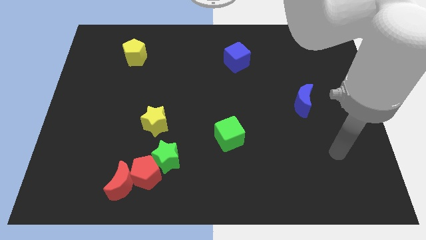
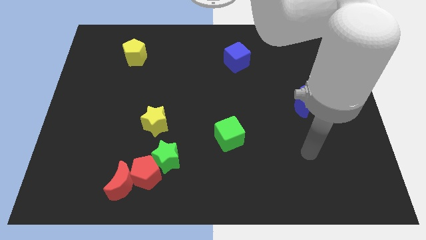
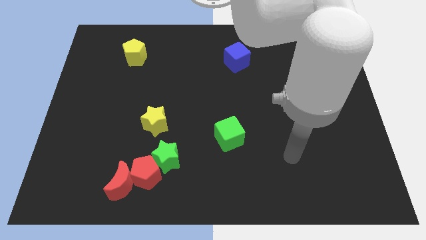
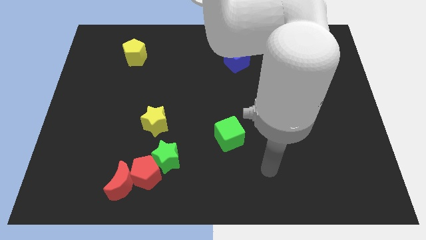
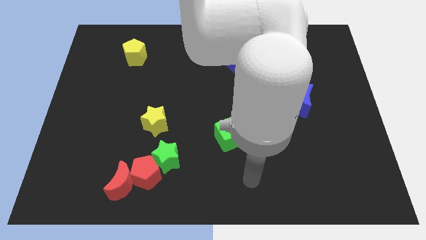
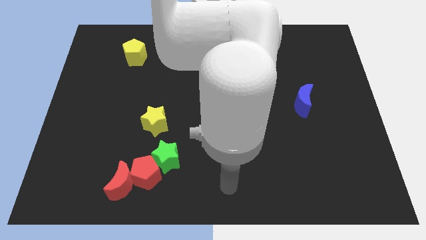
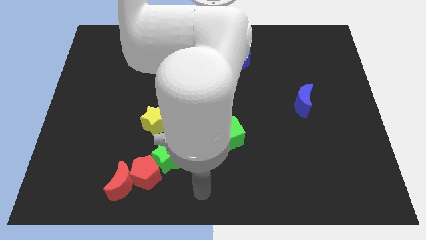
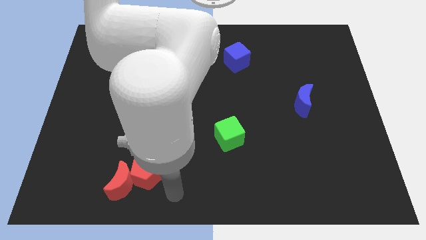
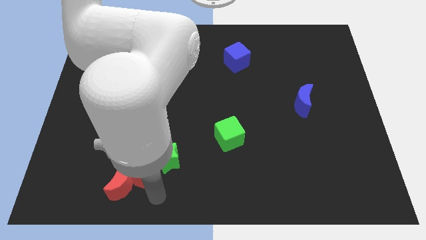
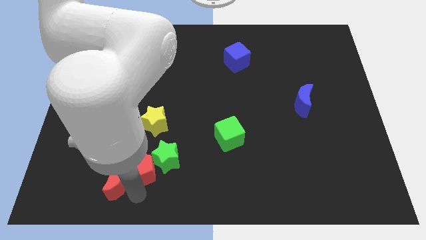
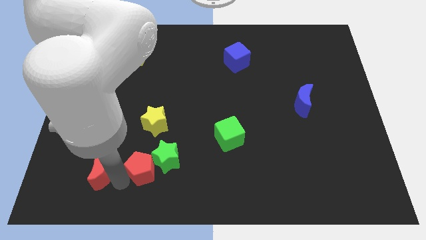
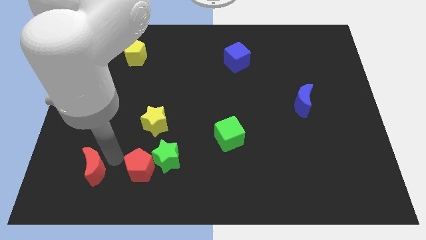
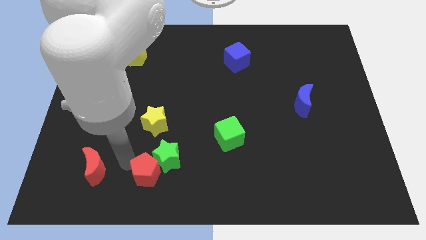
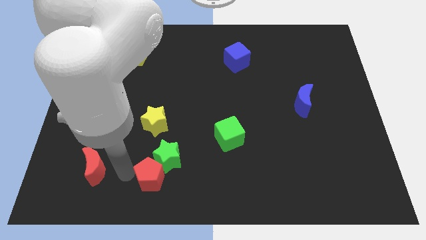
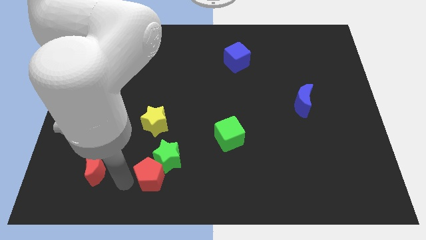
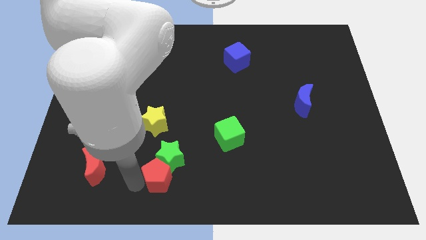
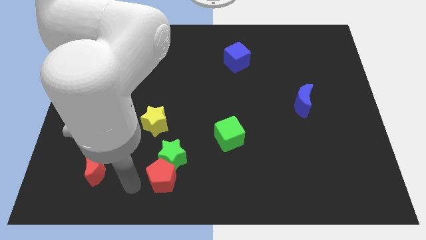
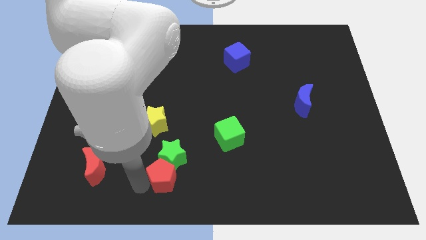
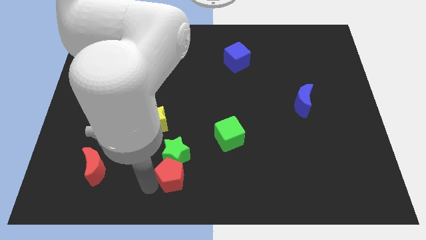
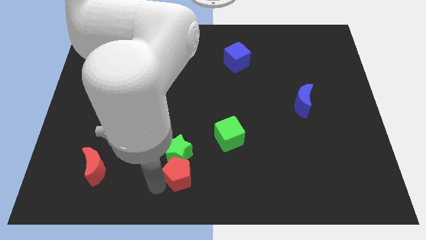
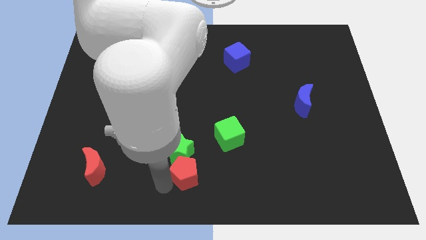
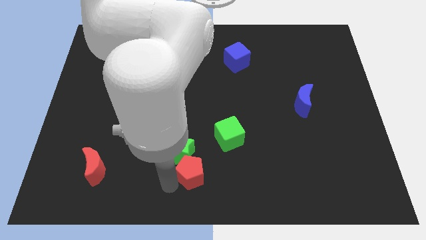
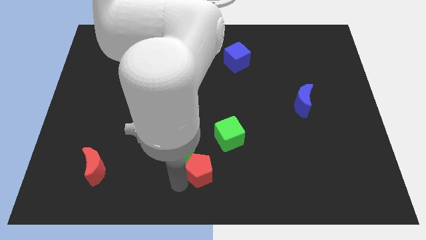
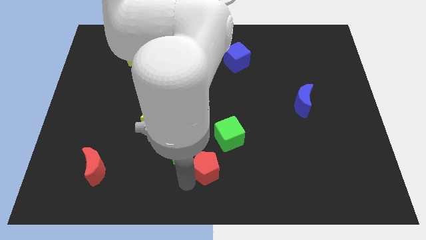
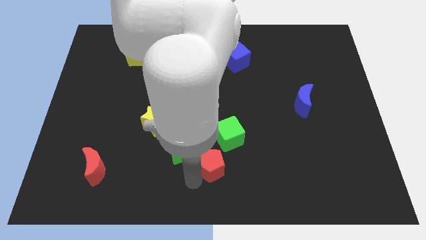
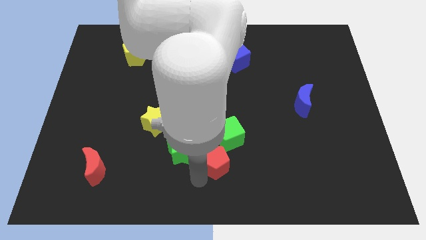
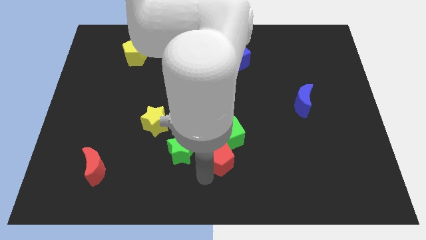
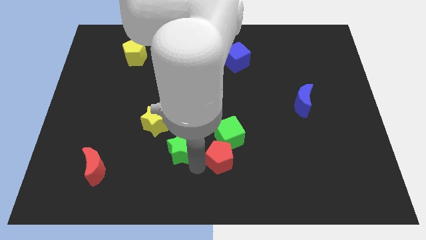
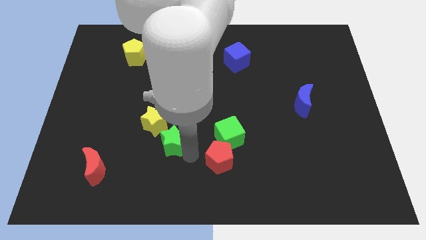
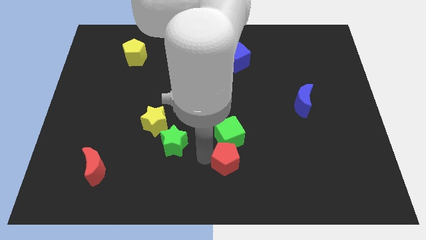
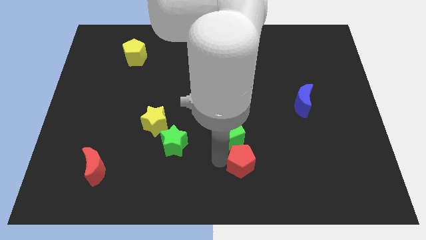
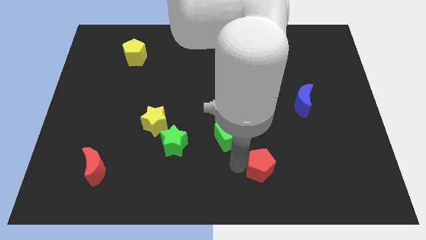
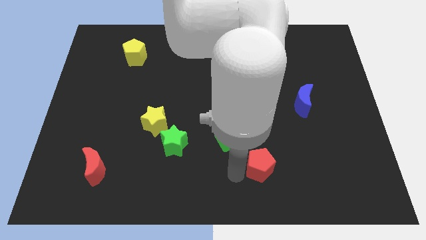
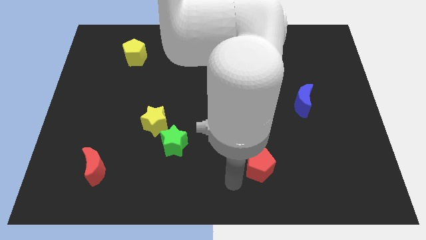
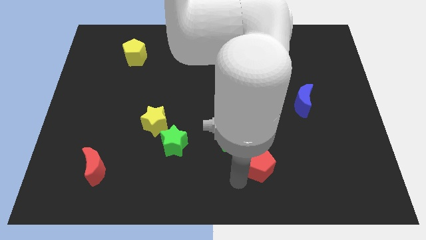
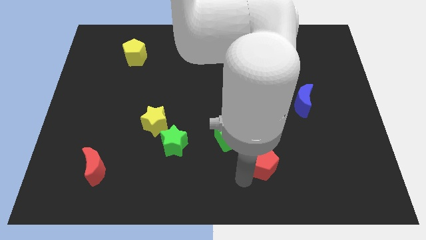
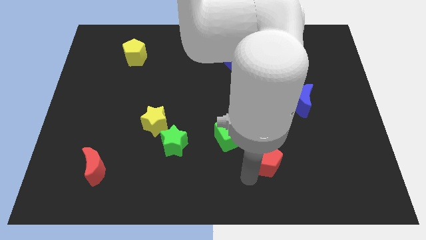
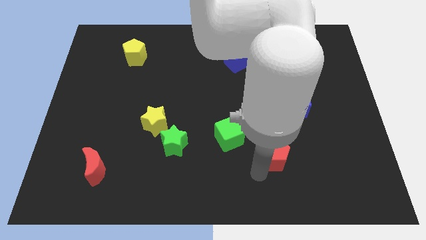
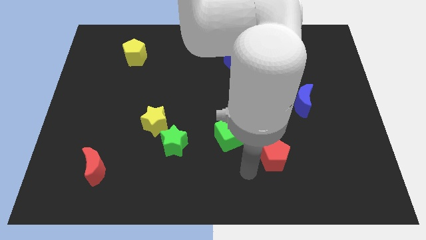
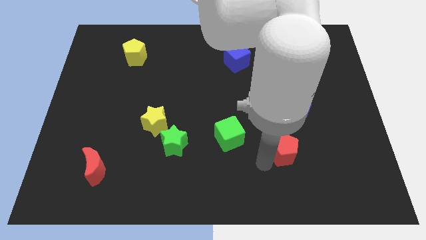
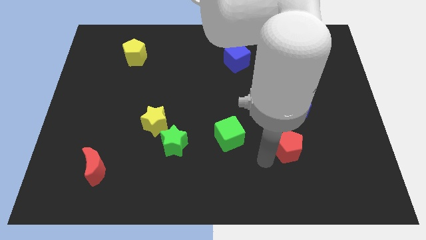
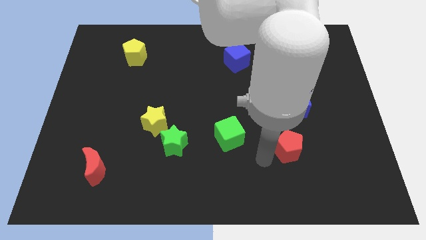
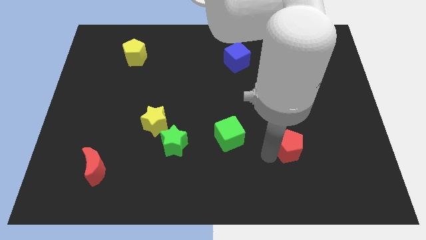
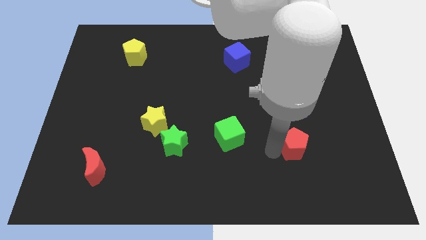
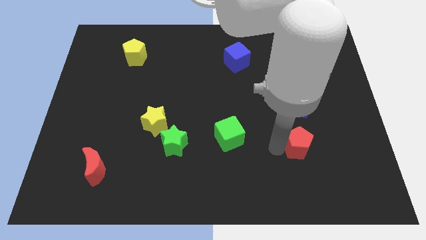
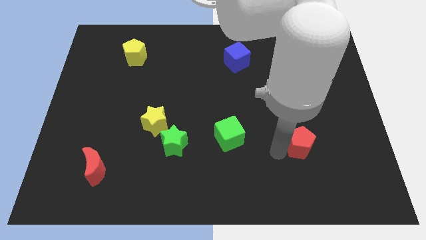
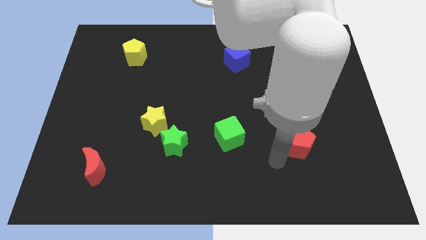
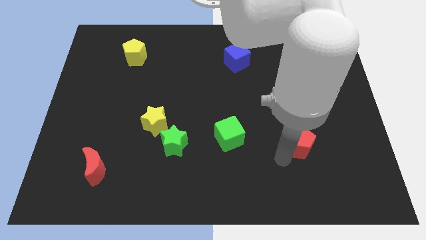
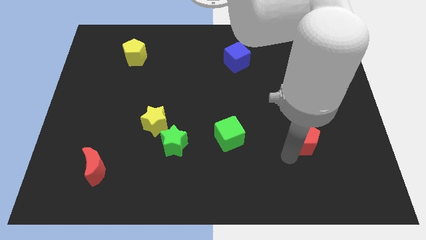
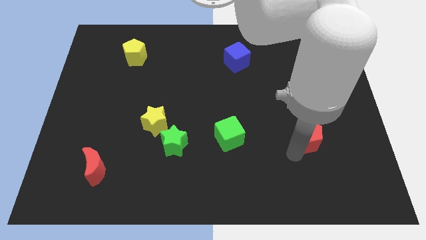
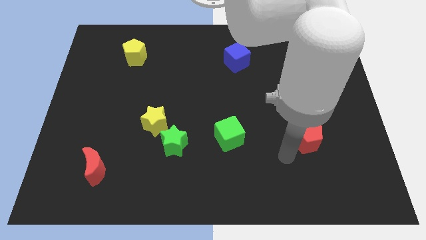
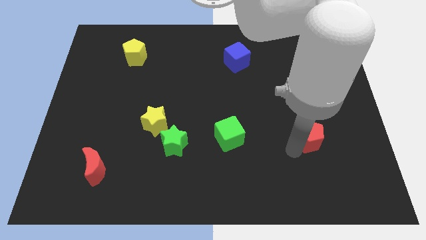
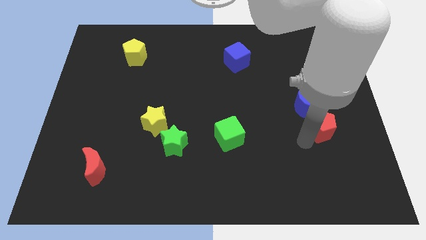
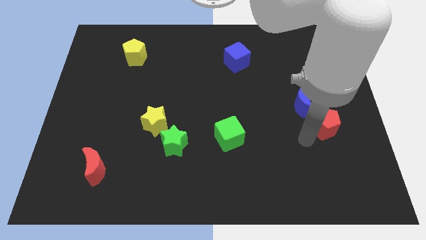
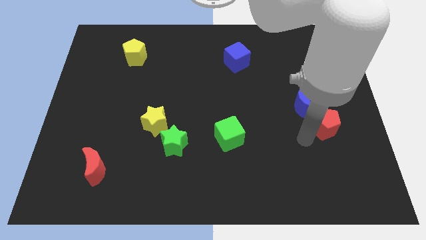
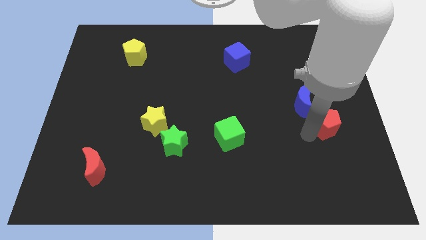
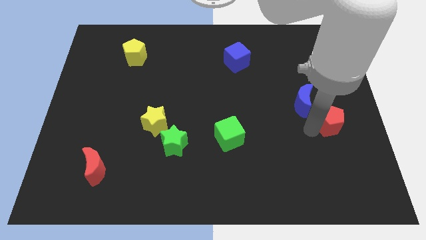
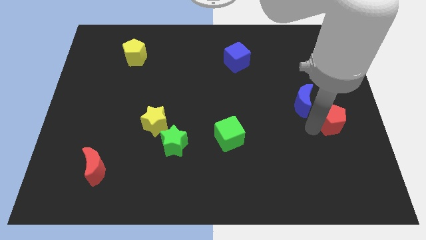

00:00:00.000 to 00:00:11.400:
push the red pentagon to the right side
